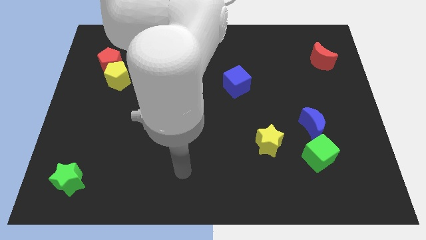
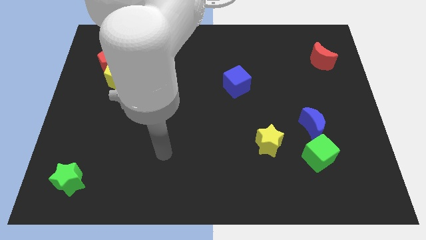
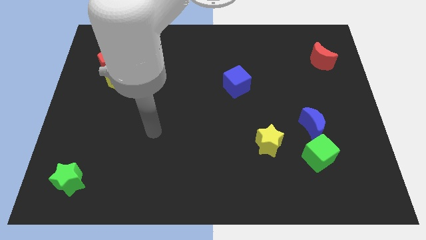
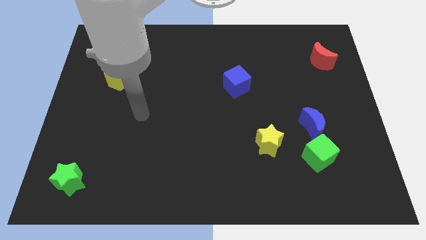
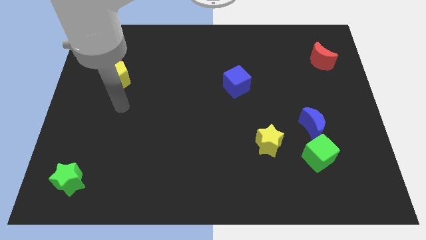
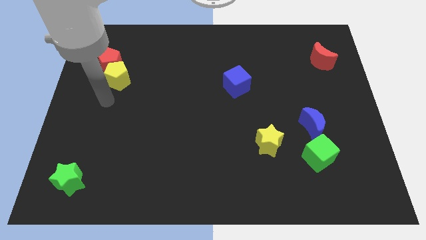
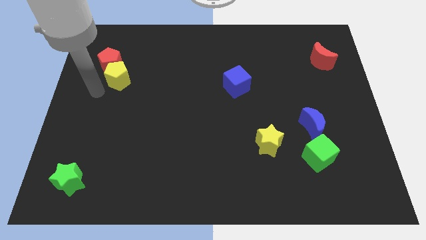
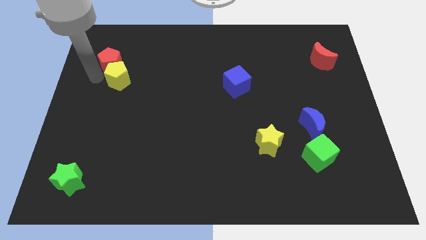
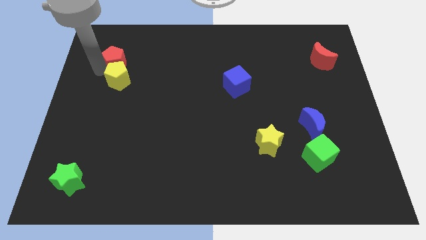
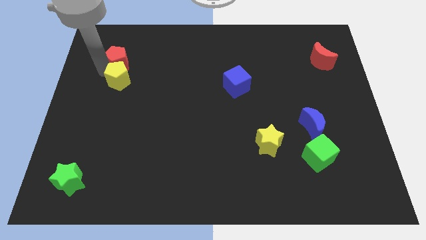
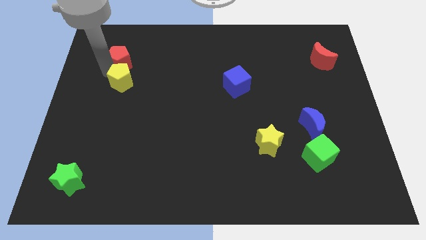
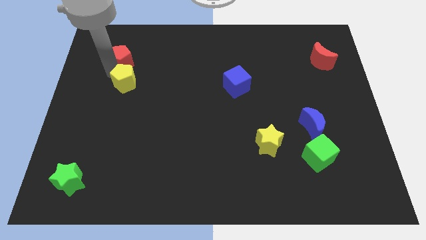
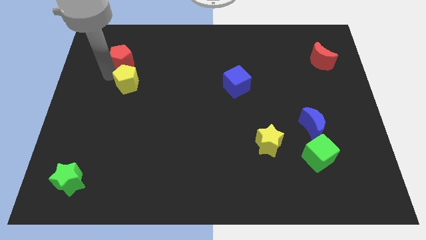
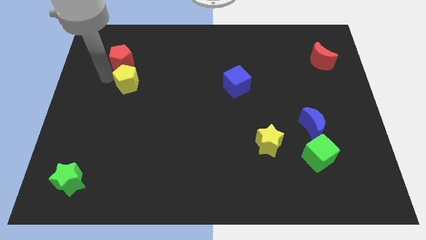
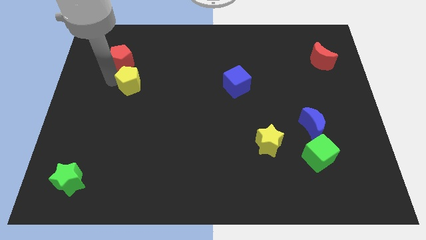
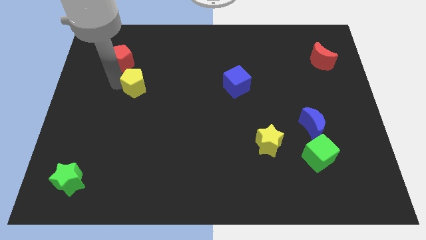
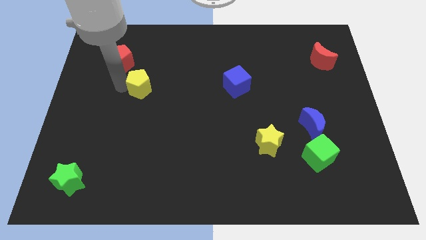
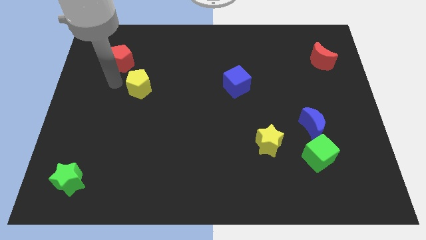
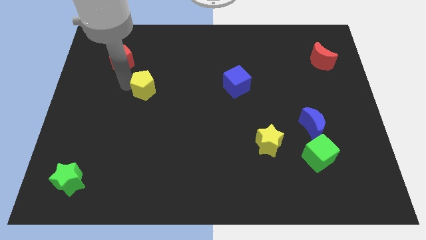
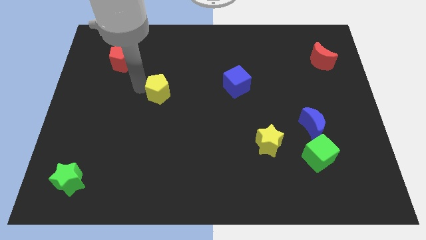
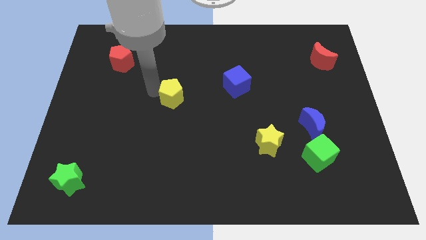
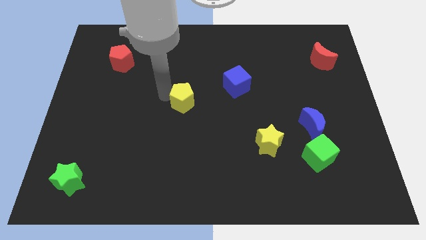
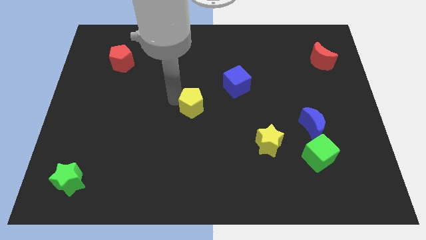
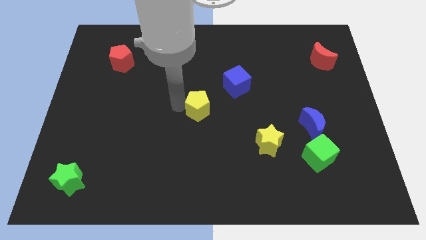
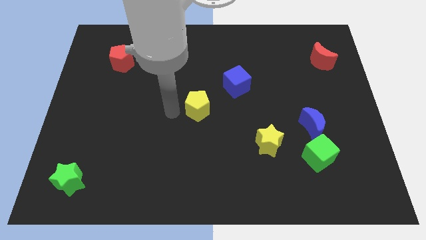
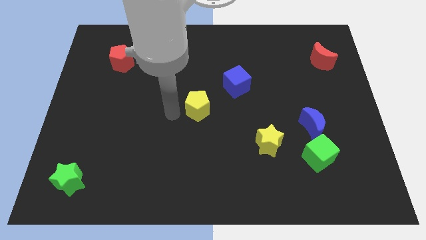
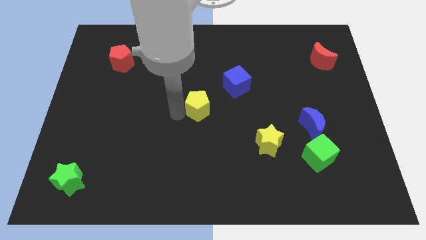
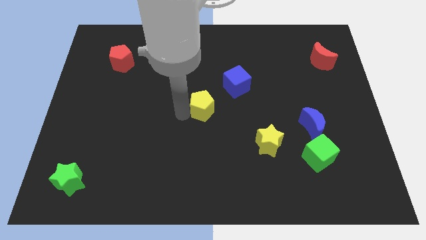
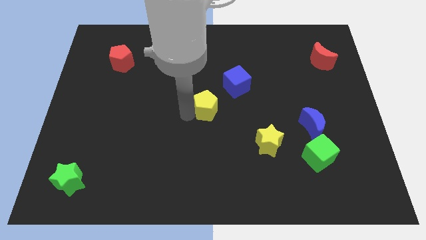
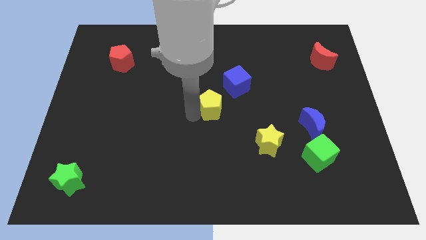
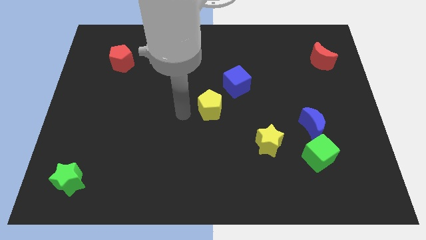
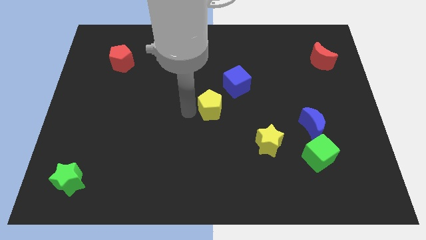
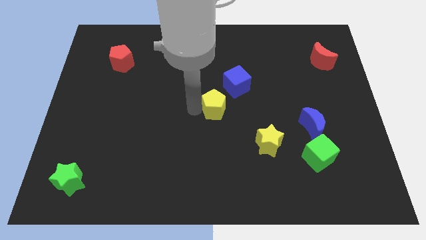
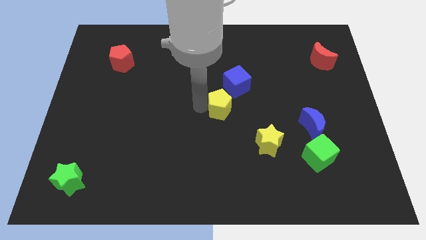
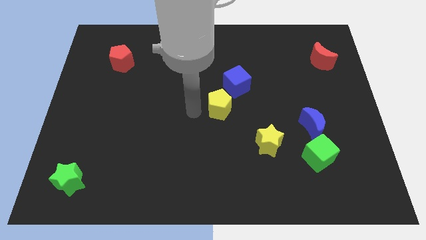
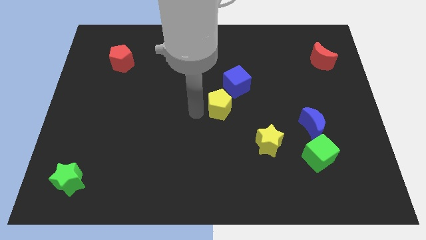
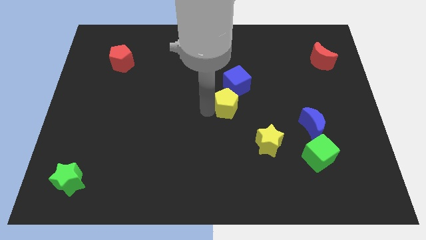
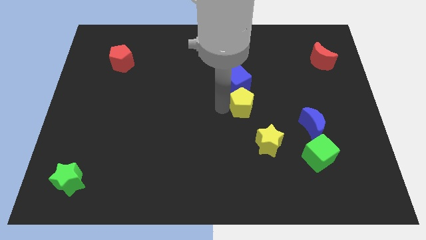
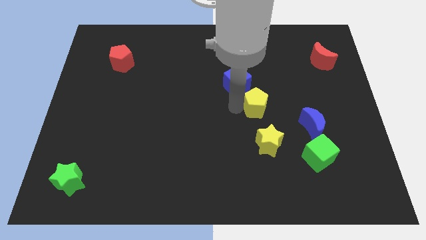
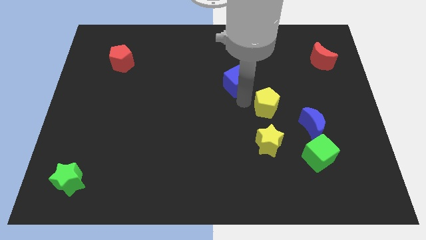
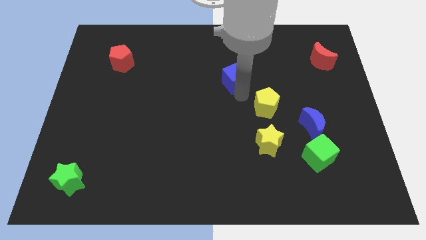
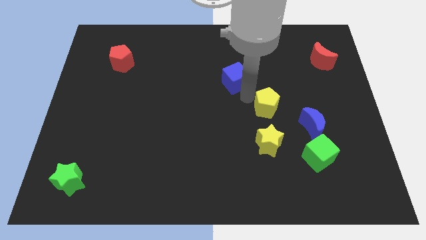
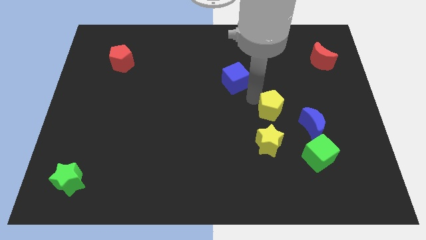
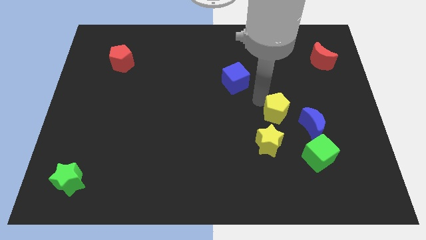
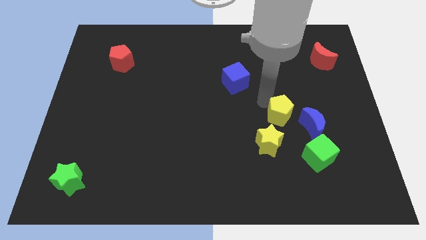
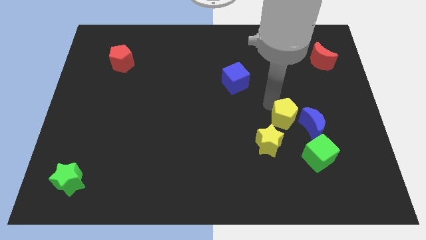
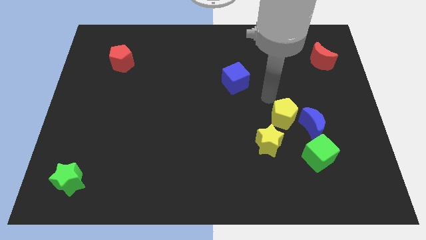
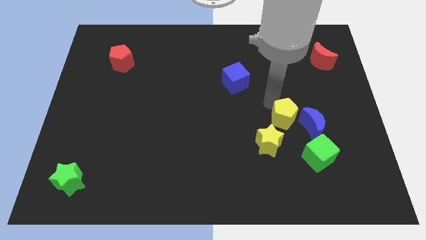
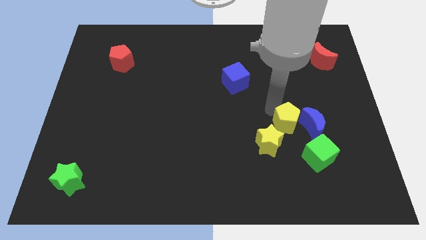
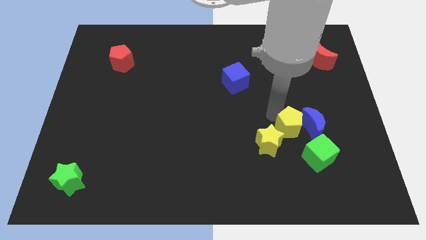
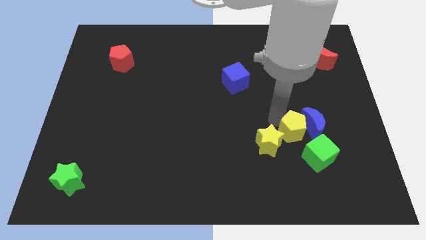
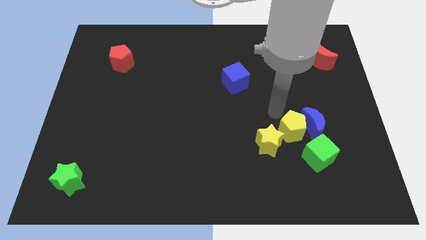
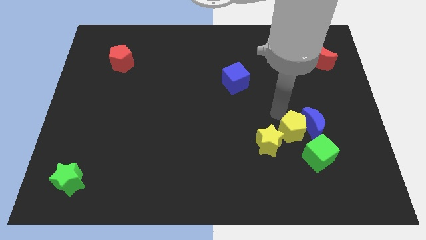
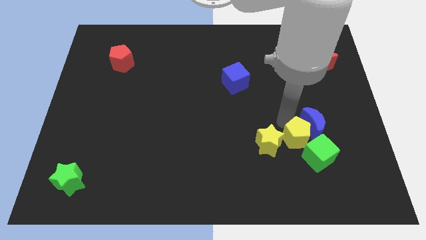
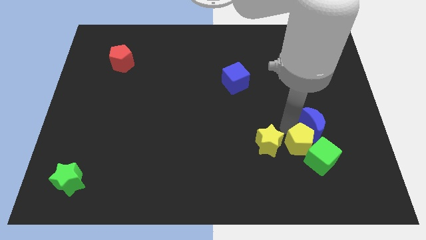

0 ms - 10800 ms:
slide the yellow pentagon to the green cube

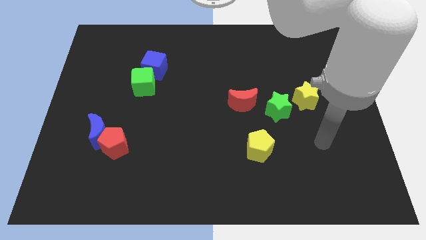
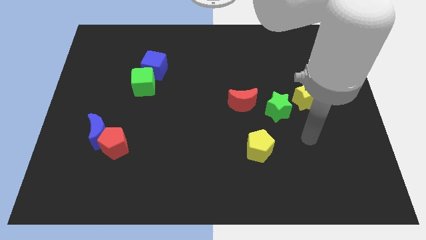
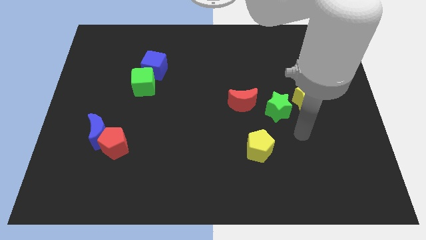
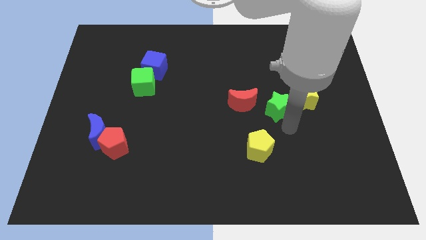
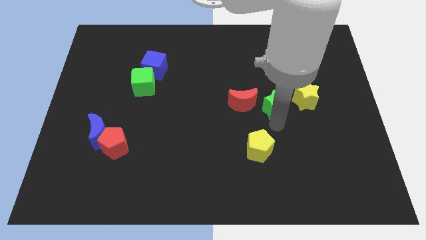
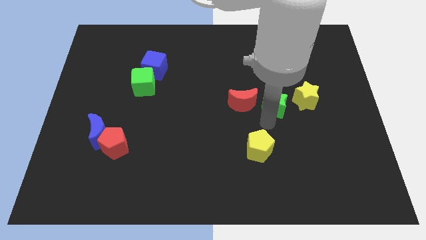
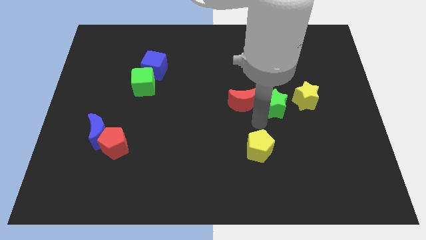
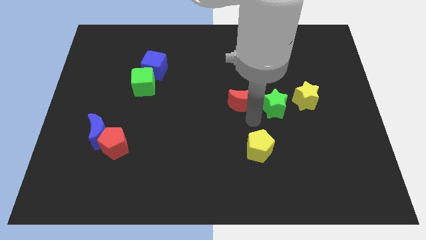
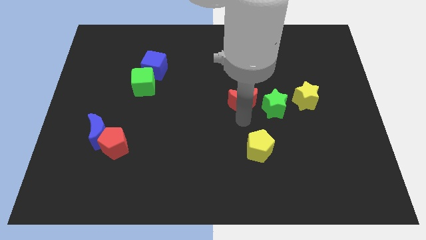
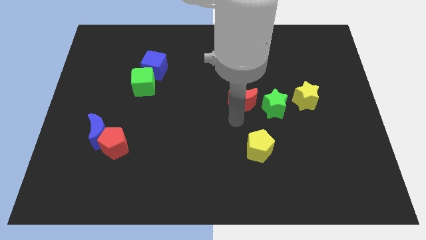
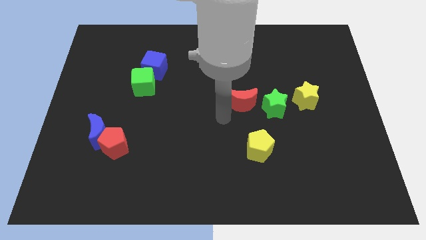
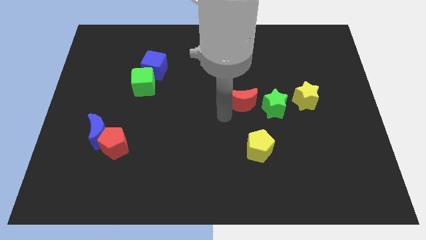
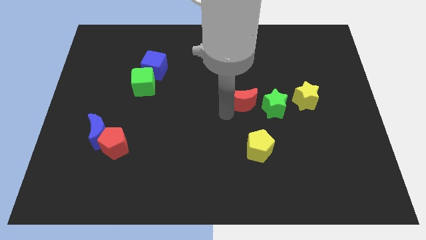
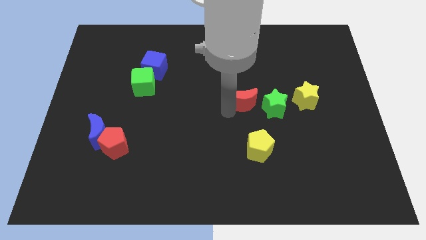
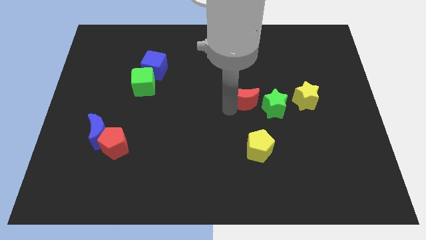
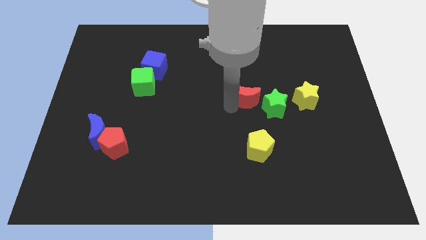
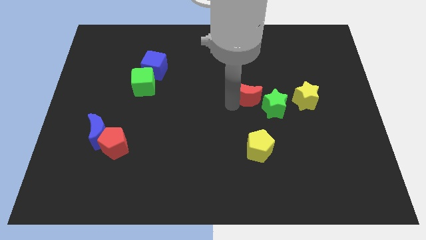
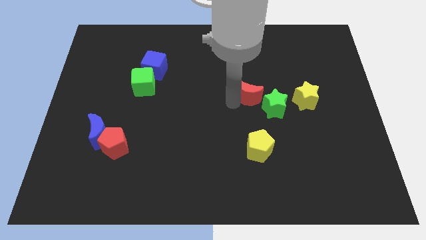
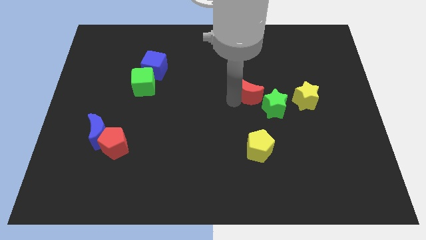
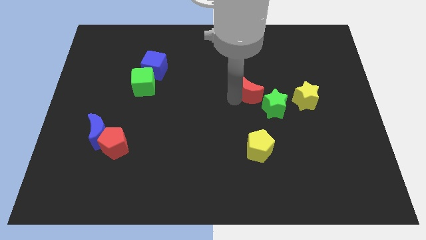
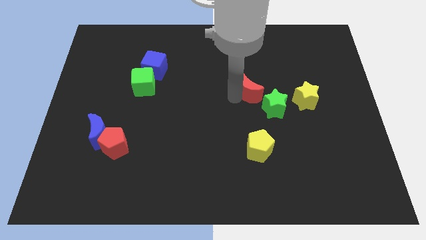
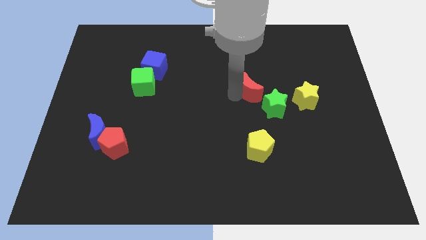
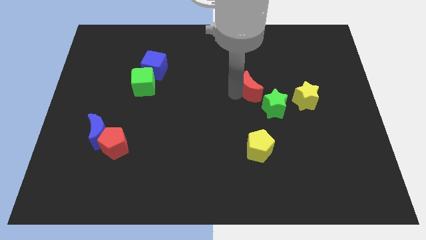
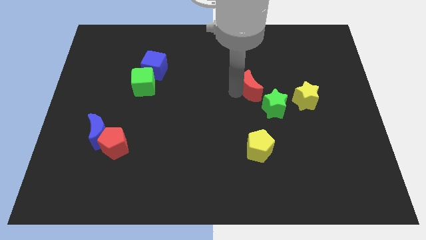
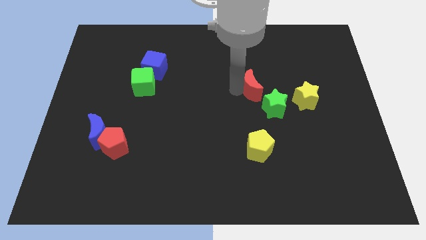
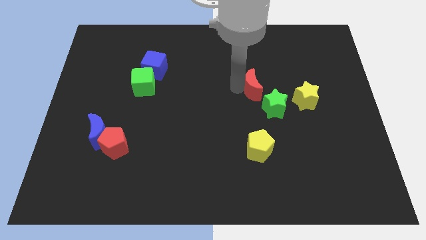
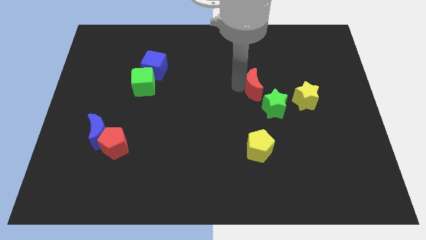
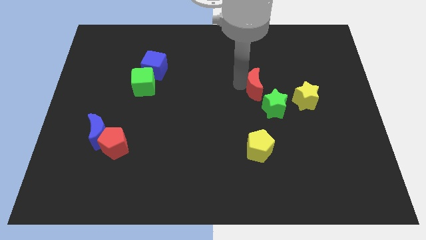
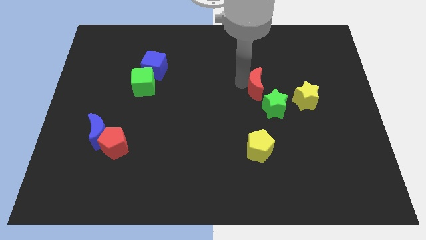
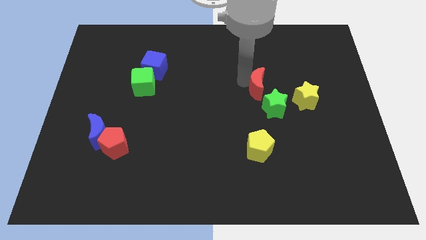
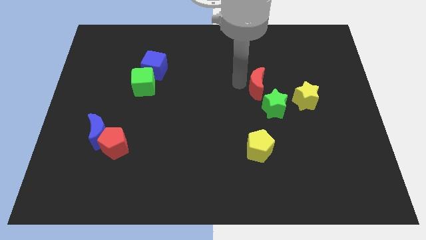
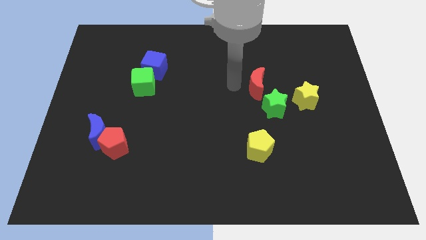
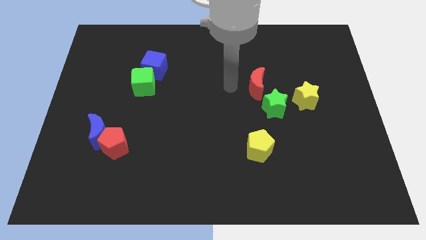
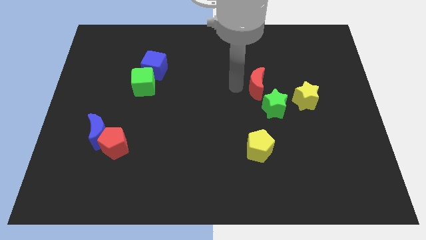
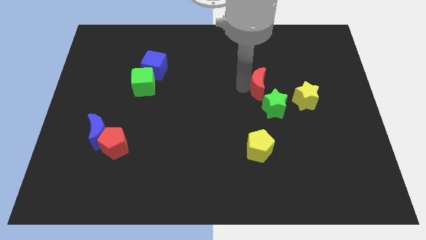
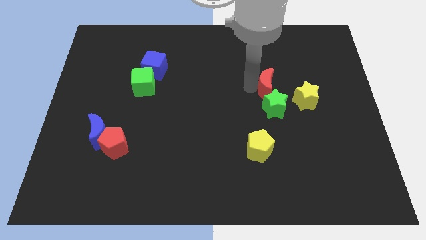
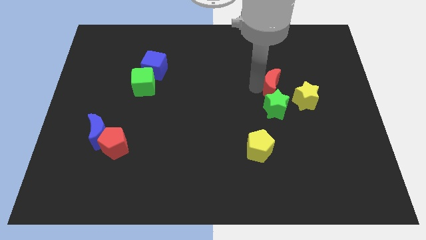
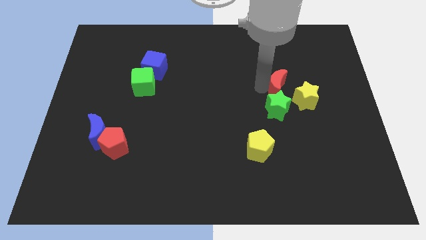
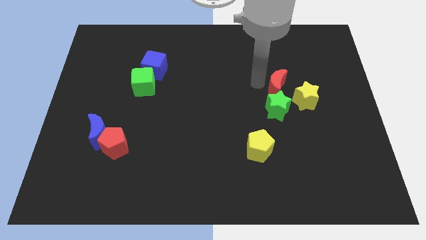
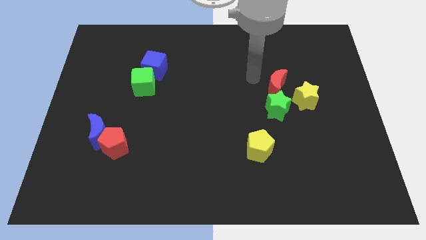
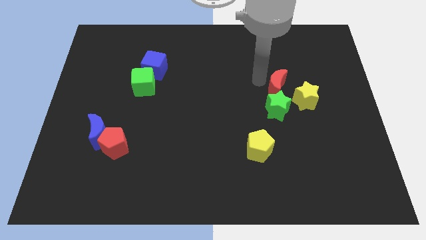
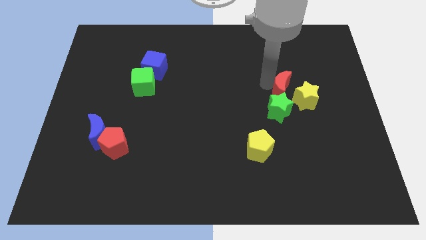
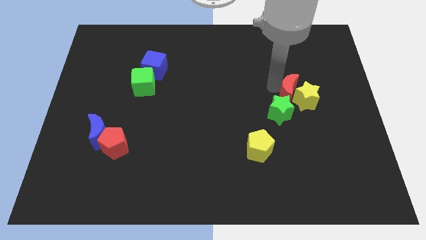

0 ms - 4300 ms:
push the red moon to the yellow star
